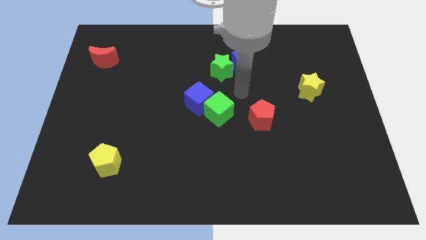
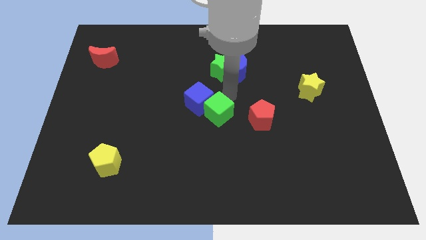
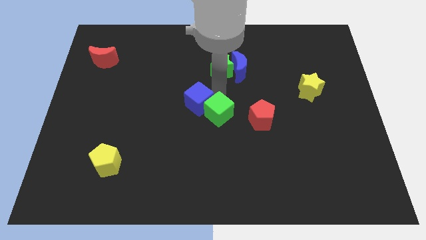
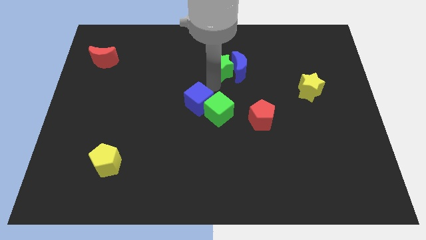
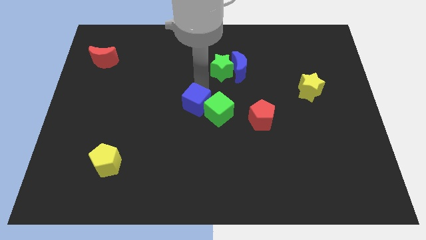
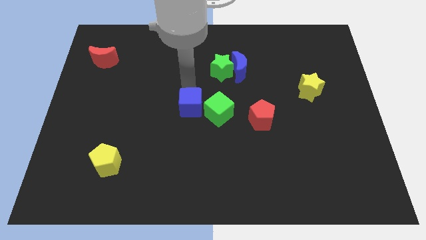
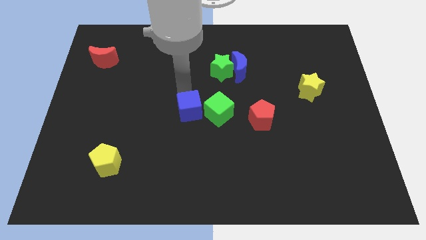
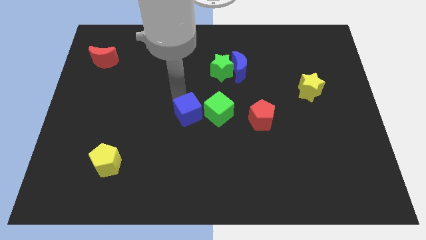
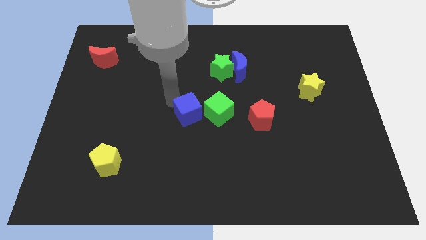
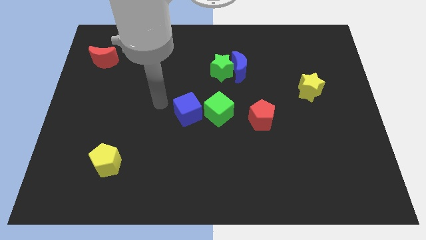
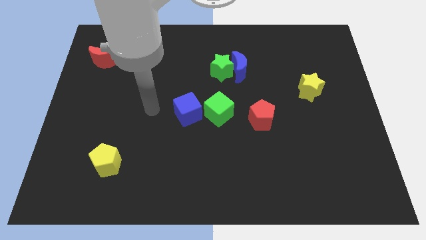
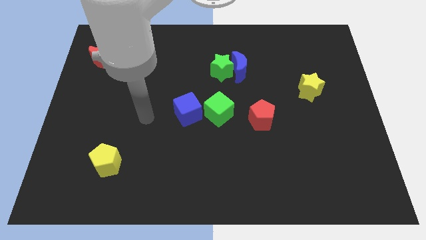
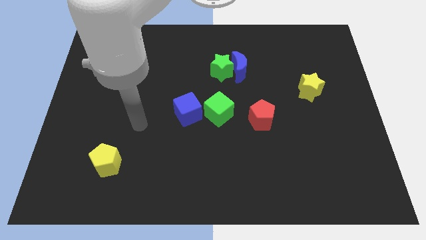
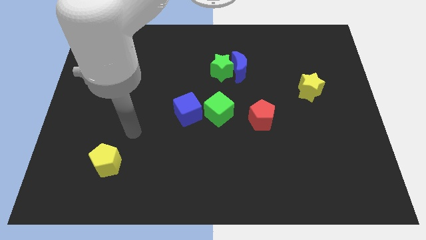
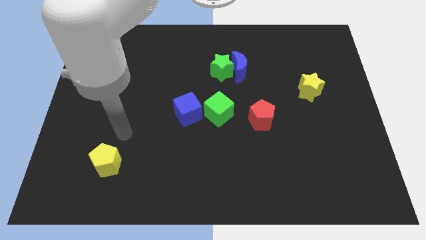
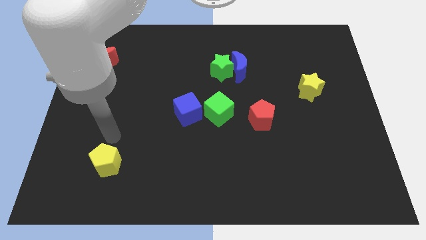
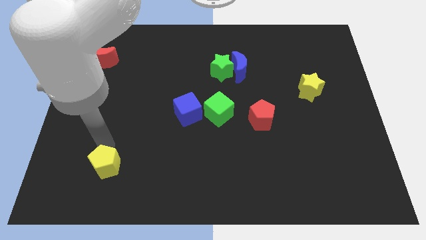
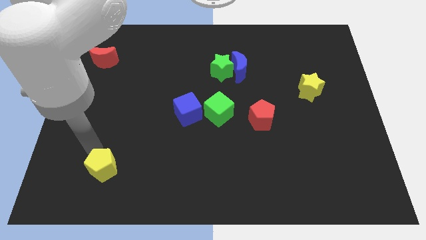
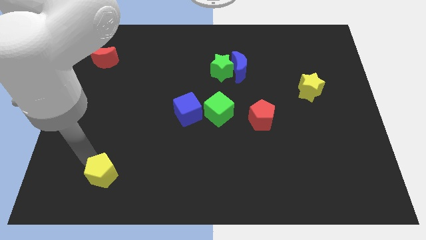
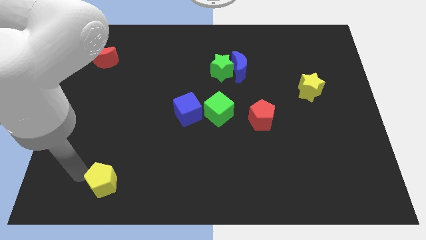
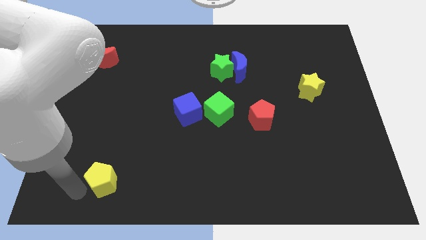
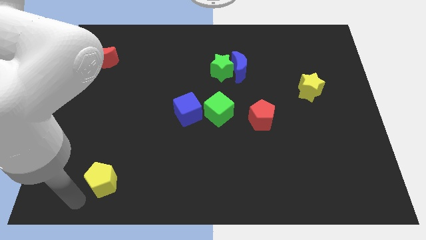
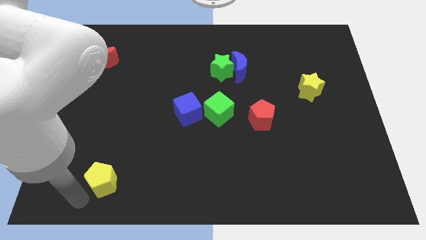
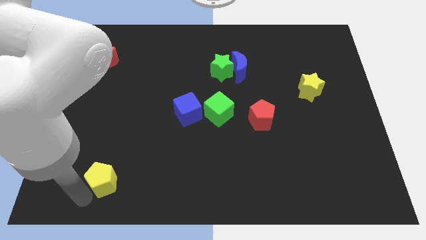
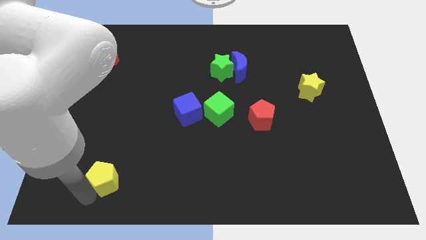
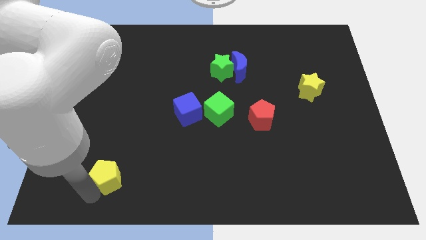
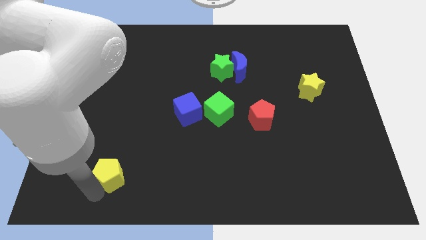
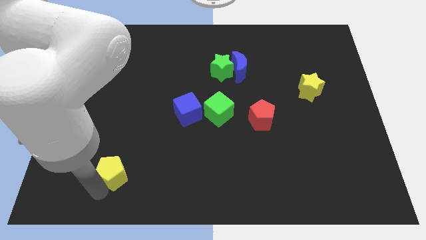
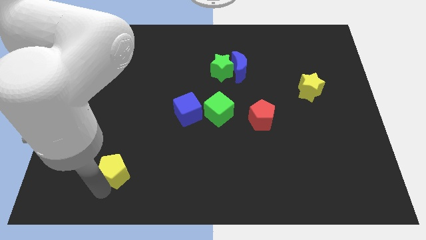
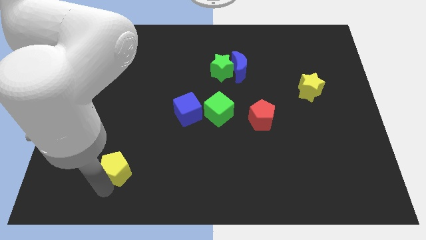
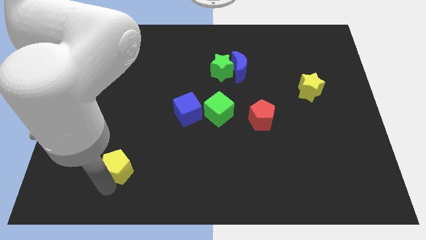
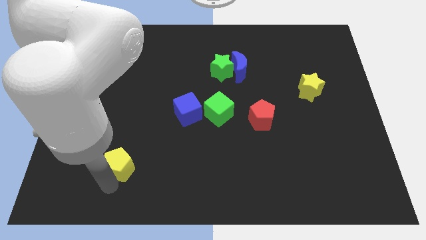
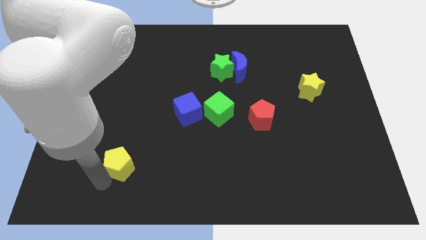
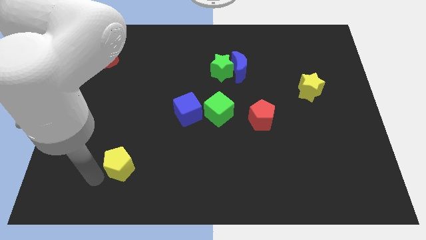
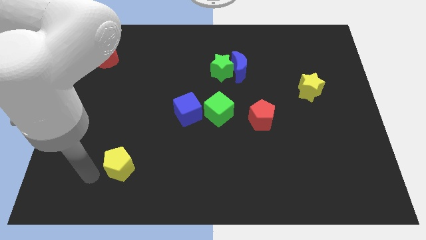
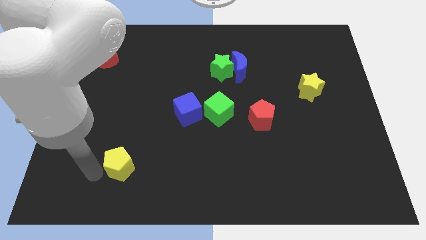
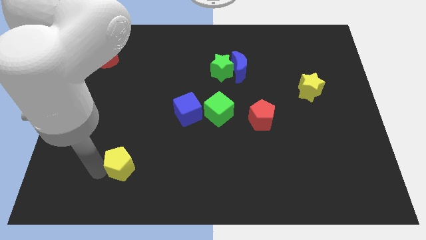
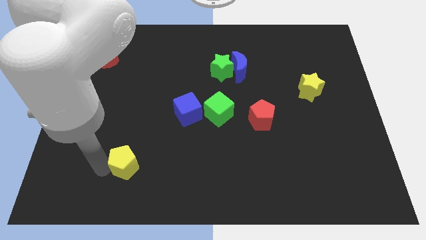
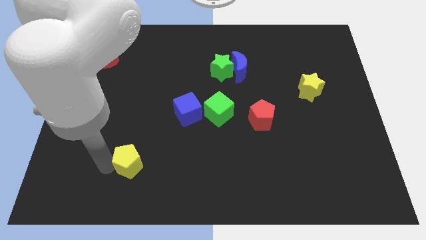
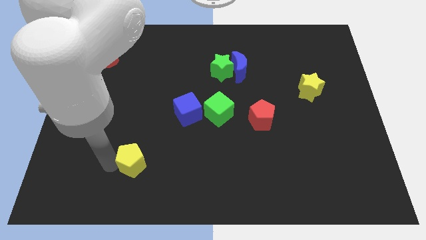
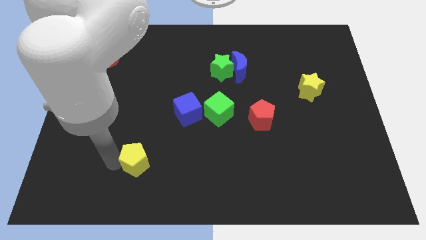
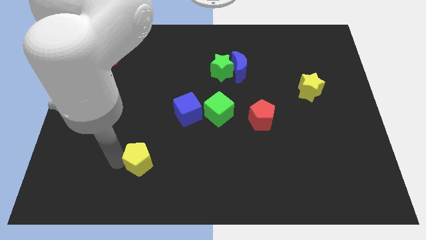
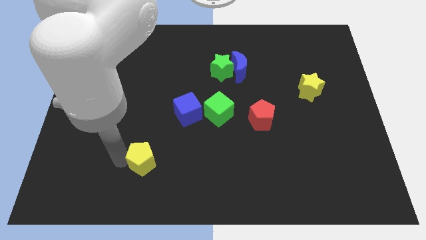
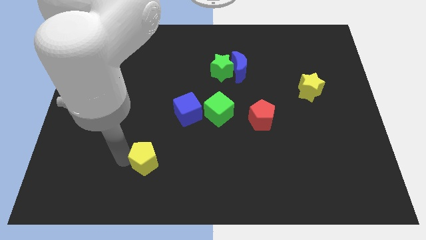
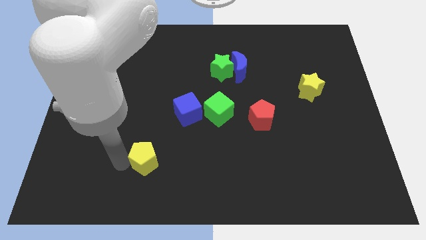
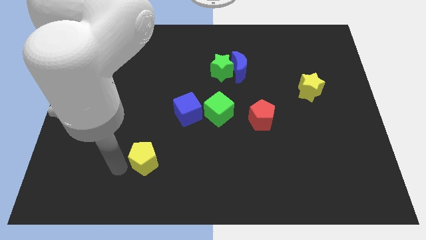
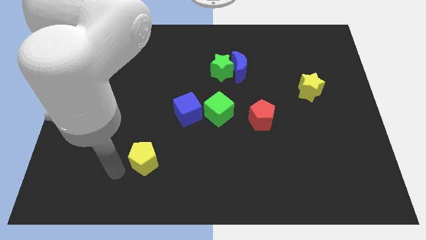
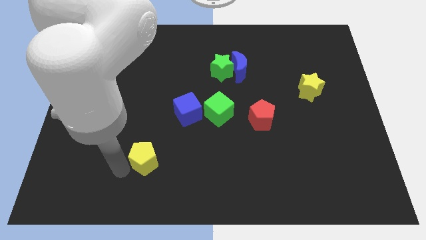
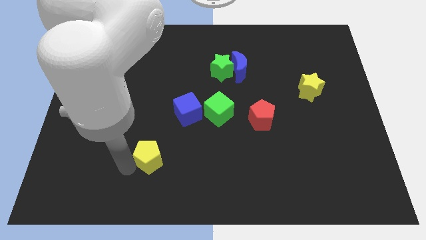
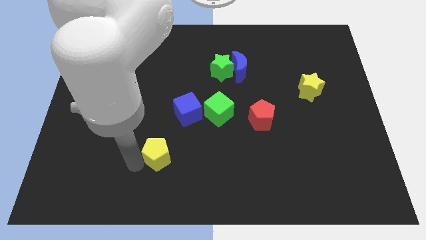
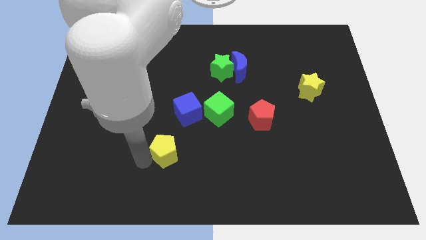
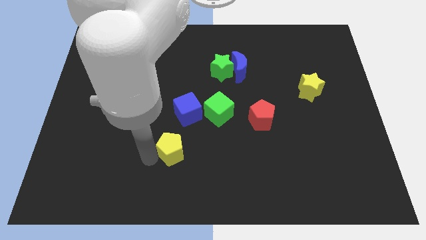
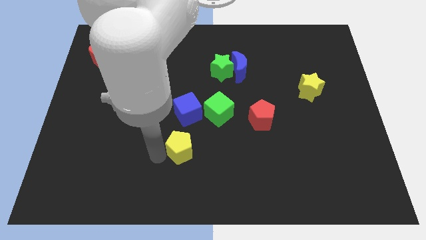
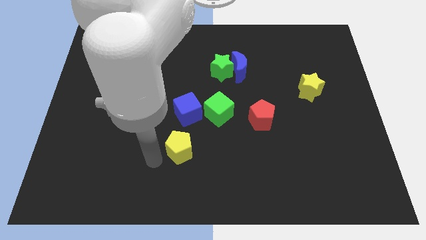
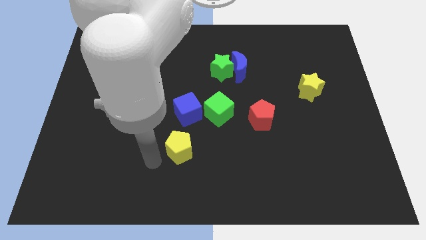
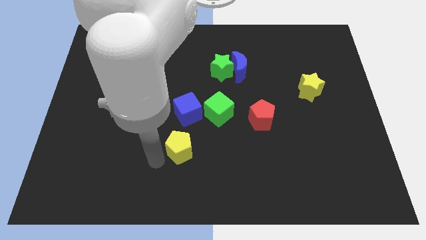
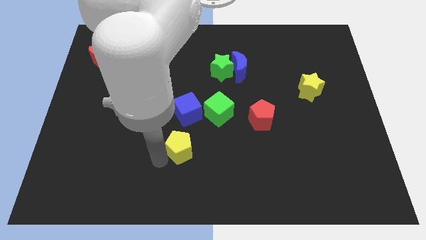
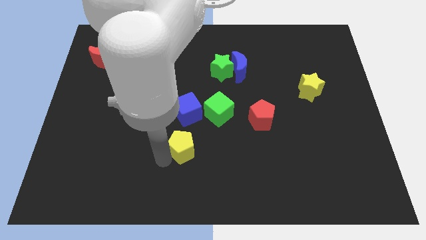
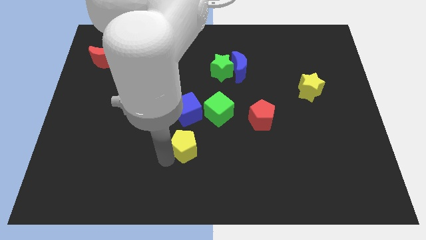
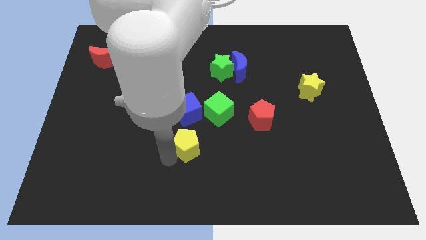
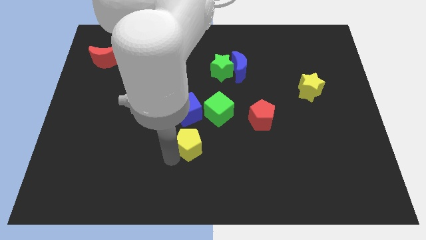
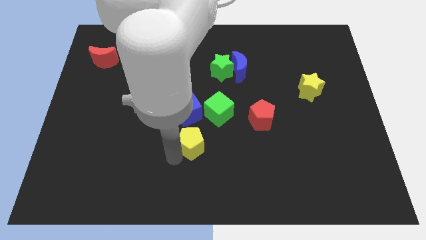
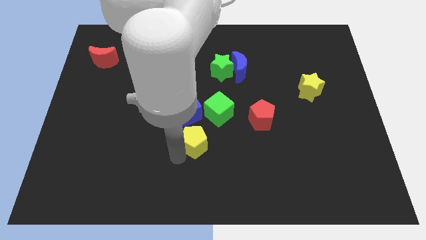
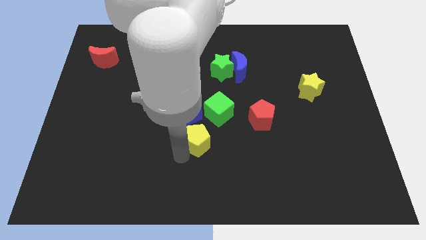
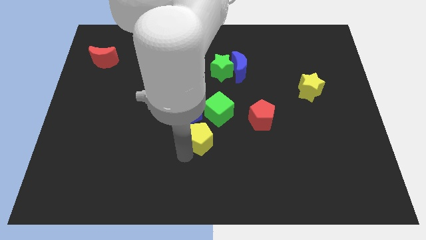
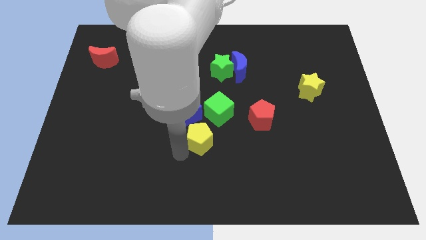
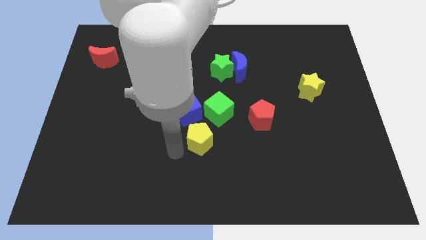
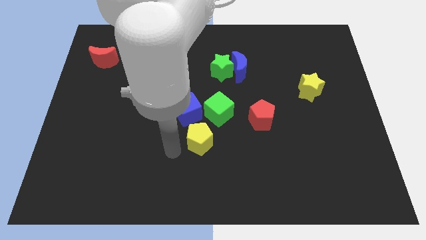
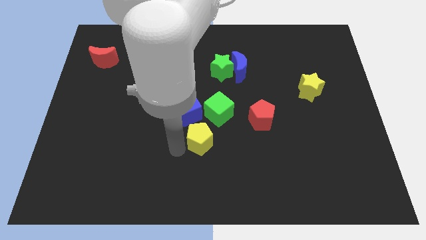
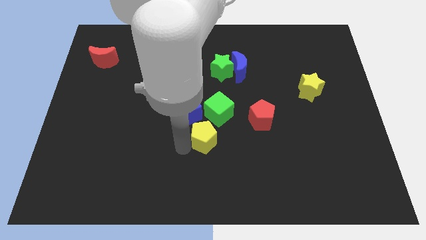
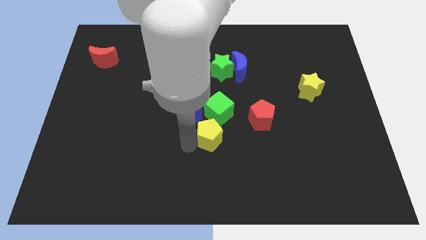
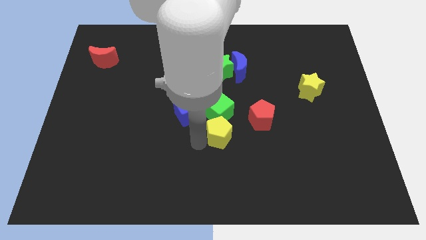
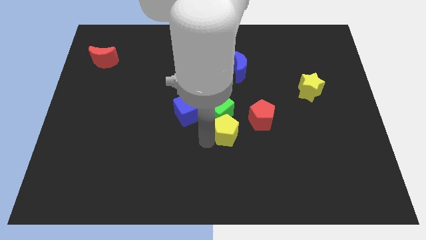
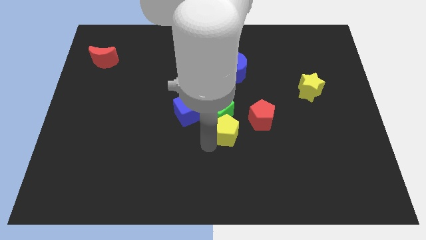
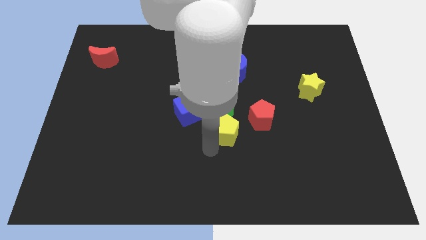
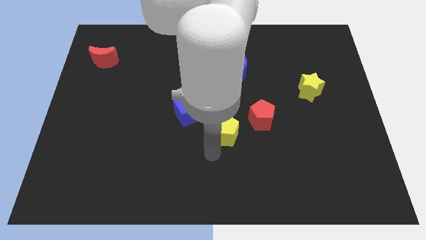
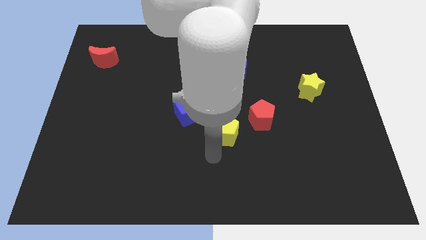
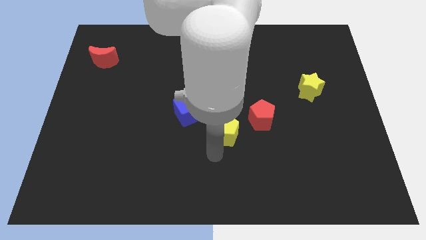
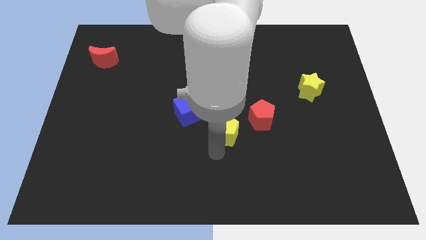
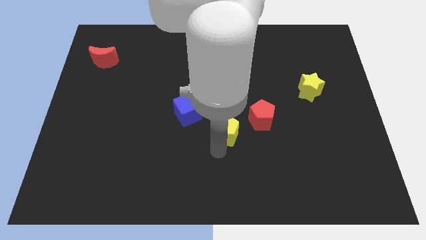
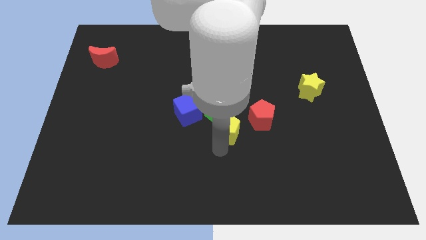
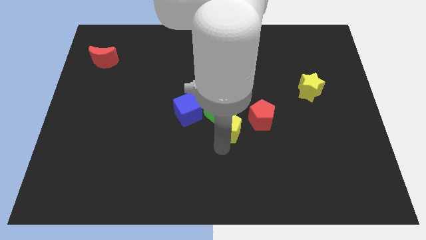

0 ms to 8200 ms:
push the yellow pentagon just right of the blue cube
